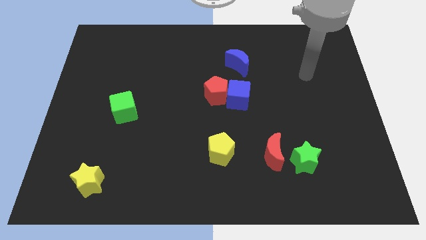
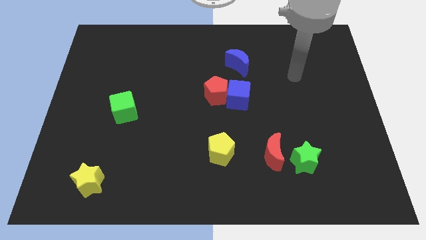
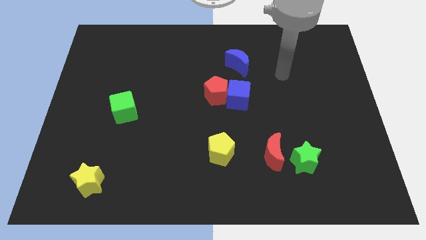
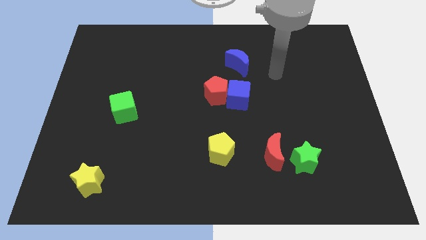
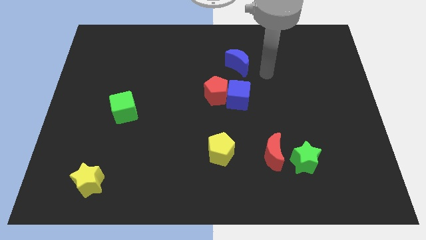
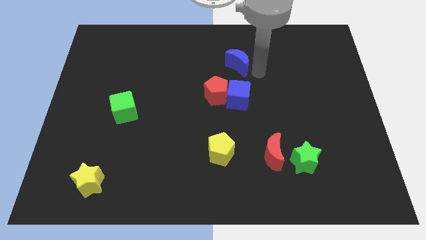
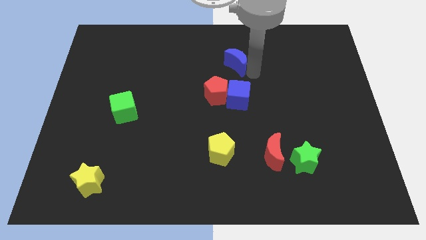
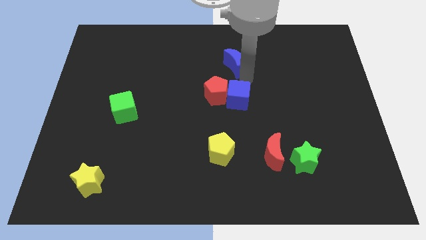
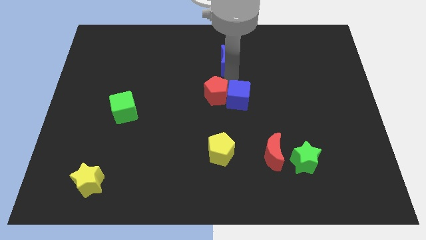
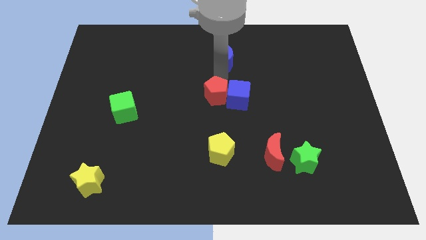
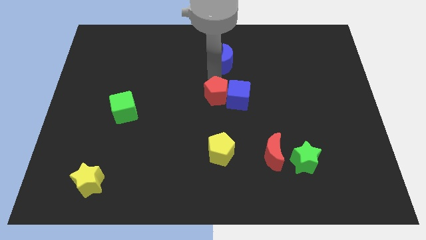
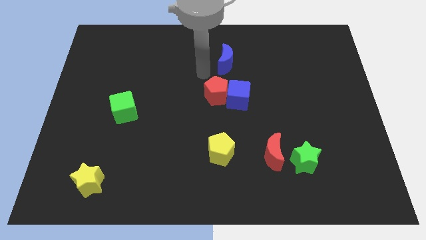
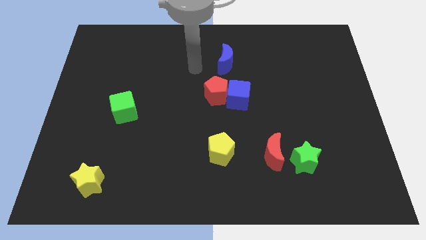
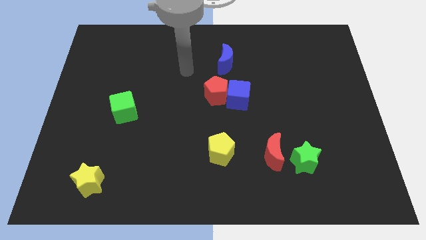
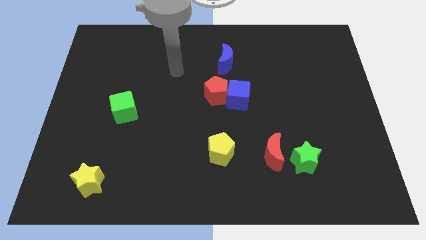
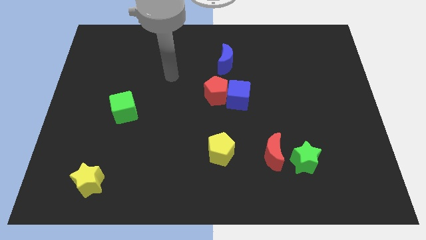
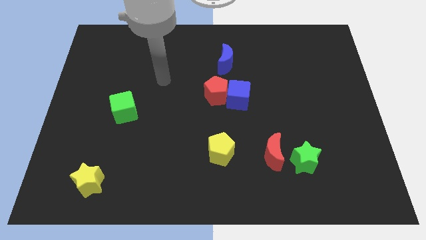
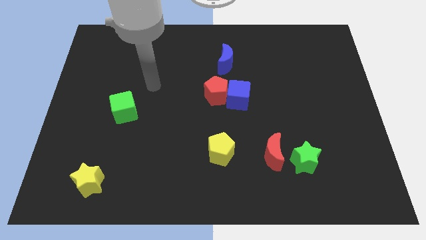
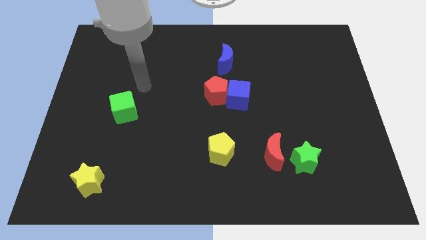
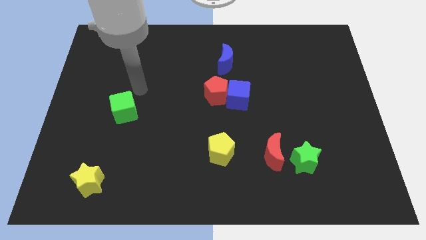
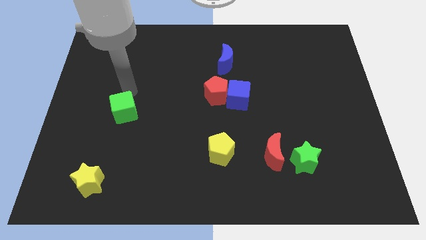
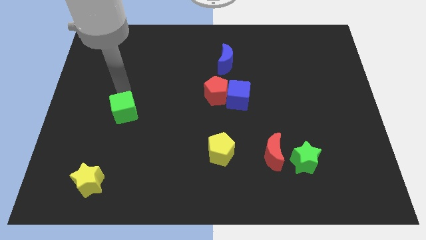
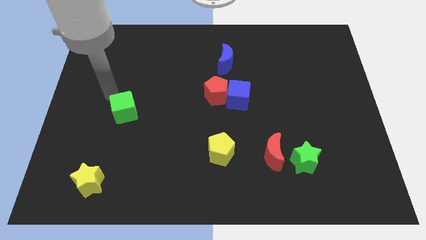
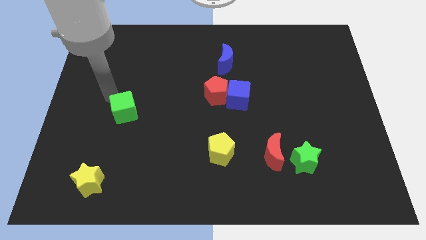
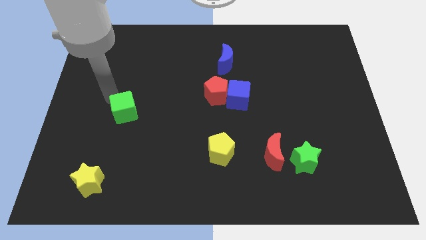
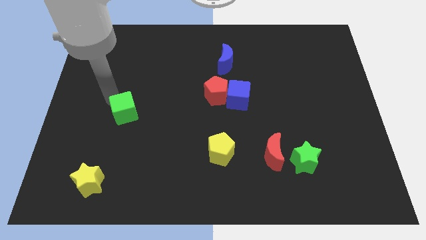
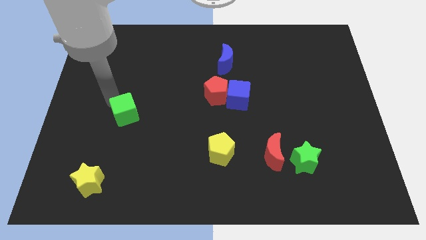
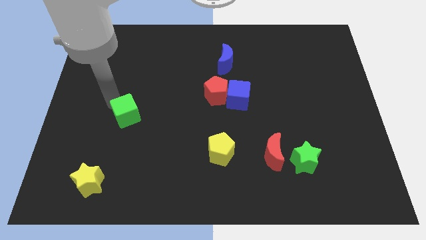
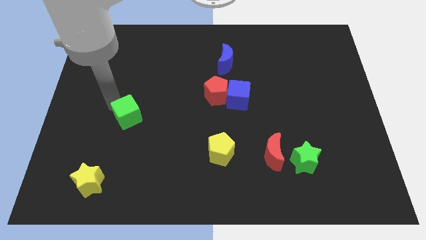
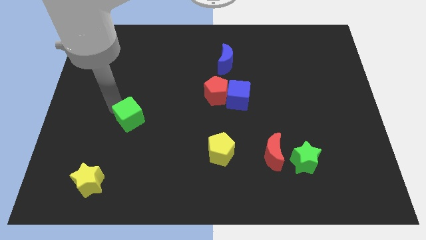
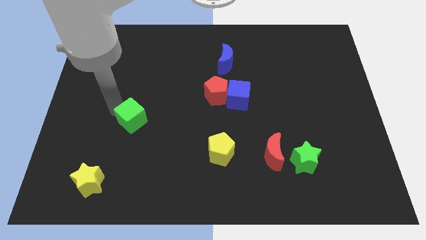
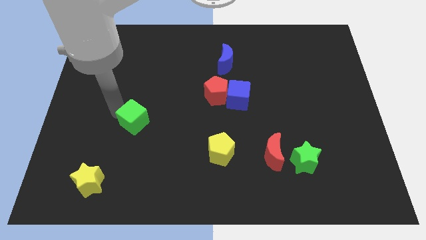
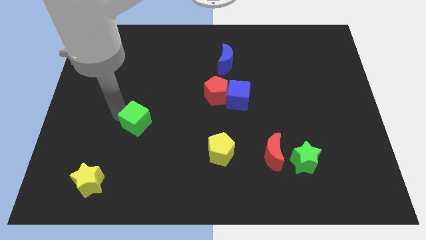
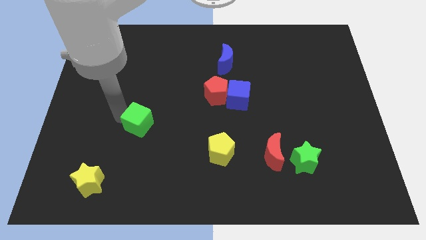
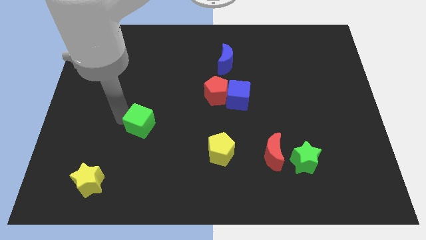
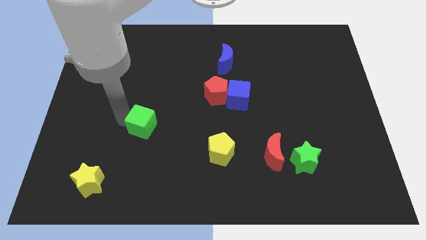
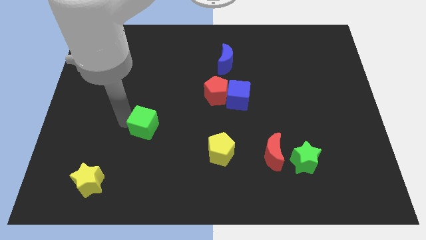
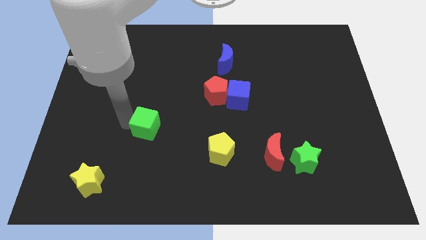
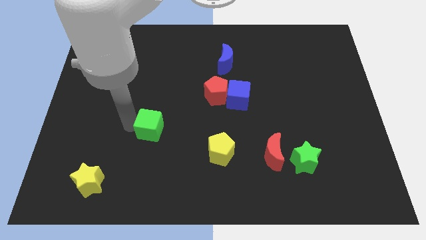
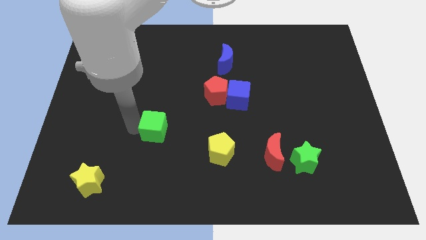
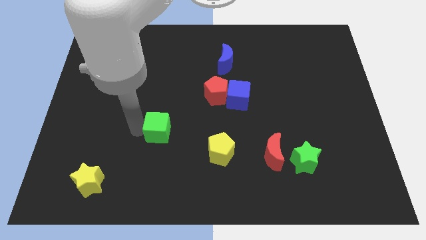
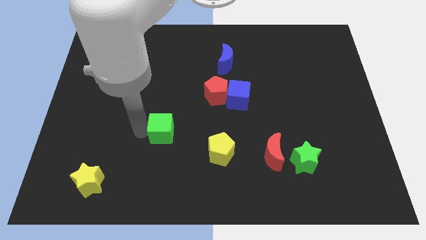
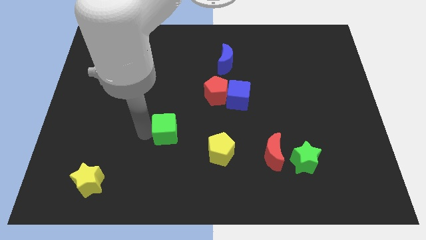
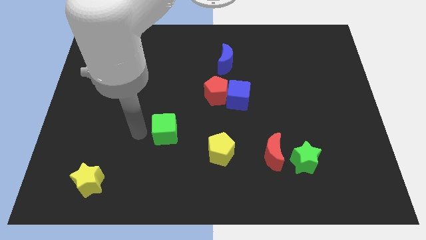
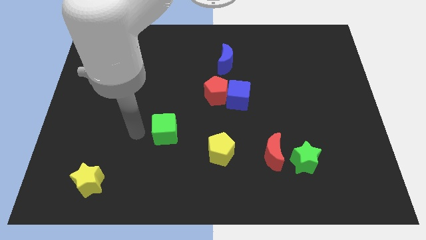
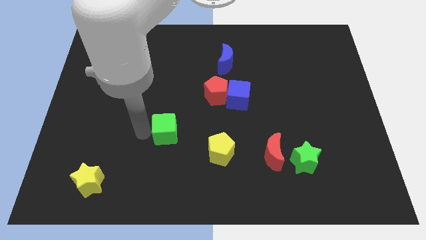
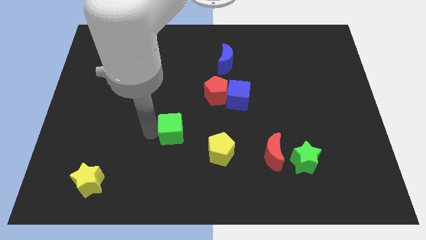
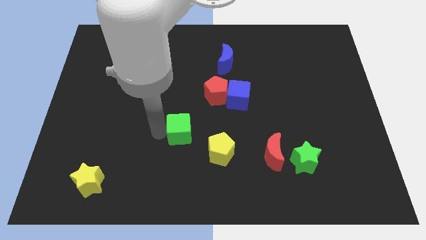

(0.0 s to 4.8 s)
slide the green cube diagonally up and to the left of the yellow pentagon

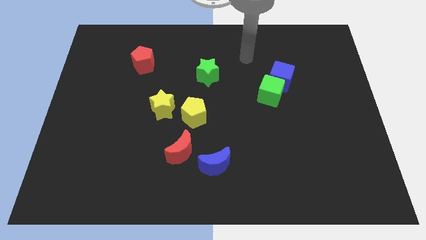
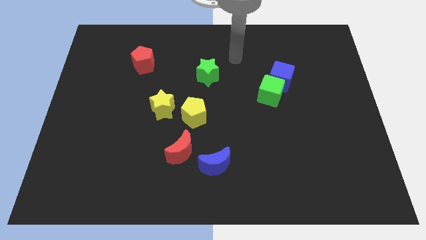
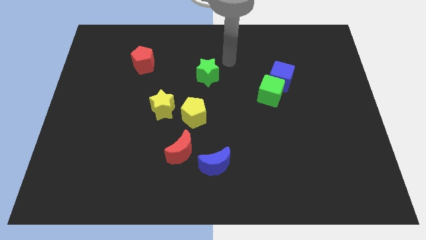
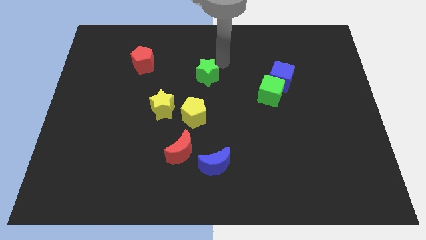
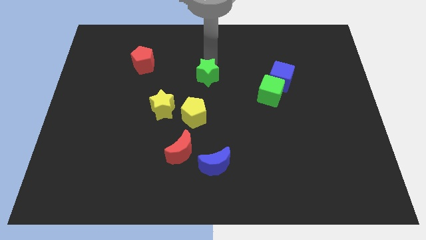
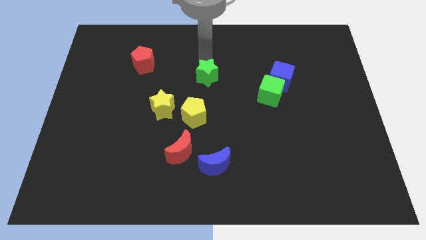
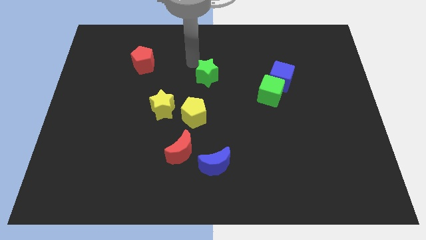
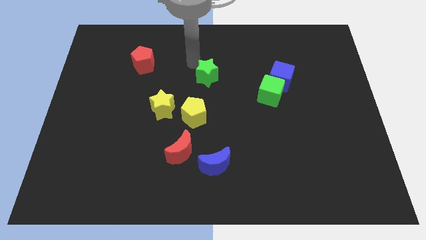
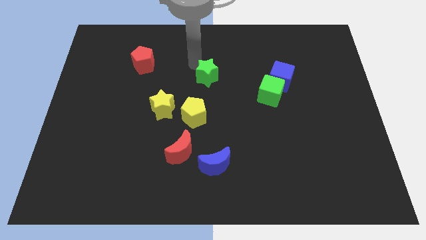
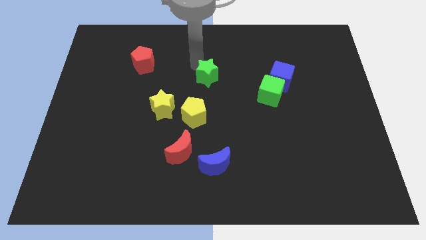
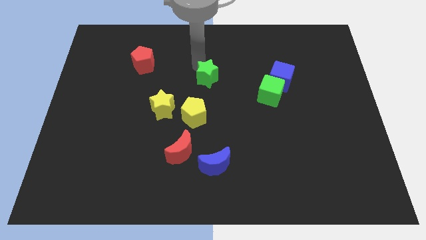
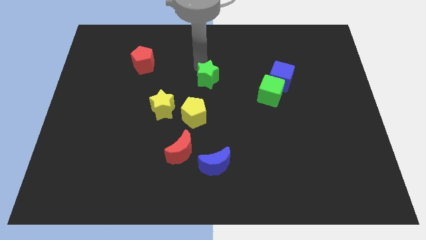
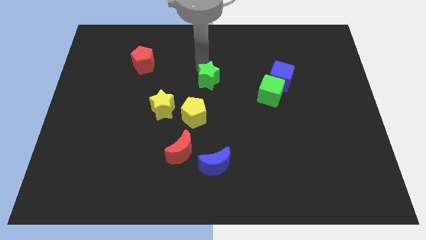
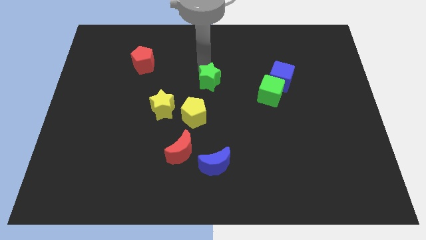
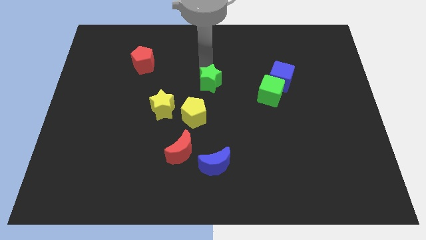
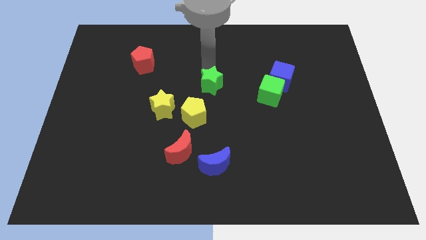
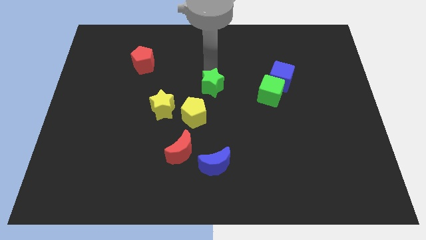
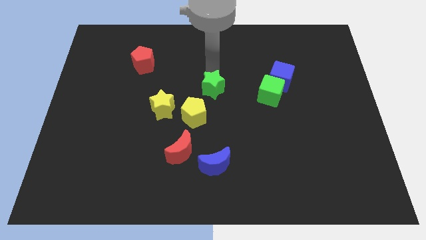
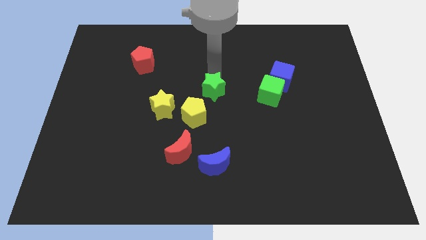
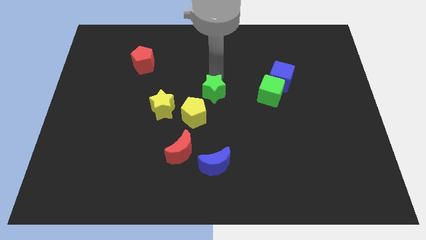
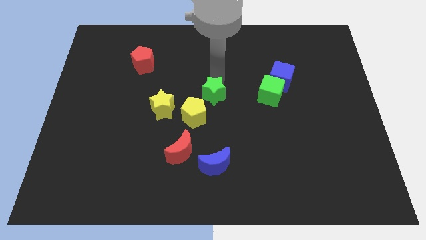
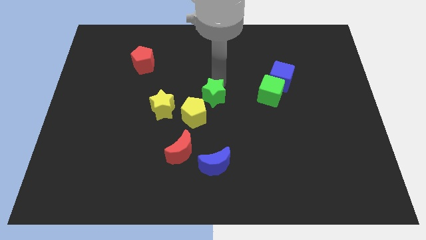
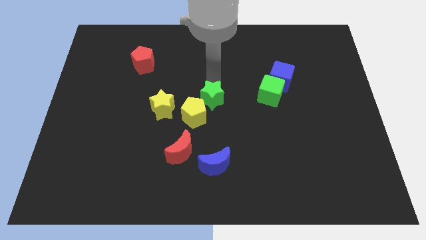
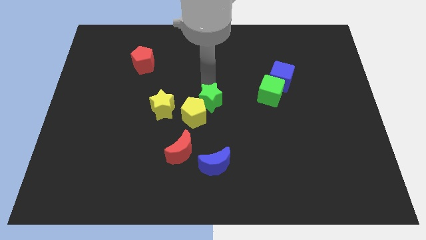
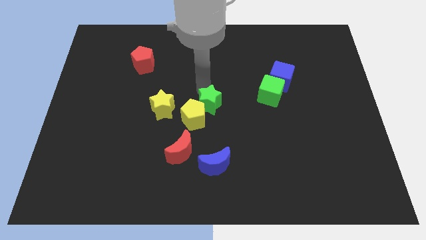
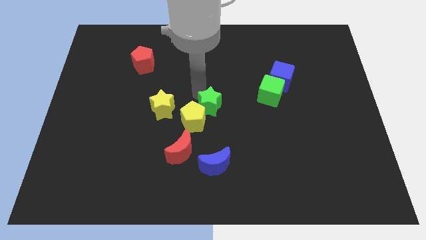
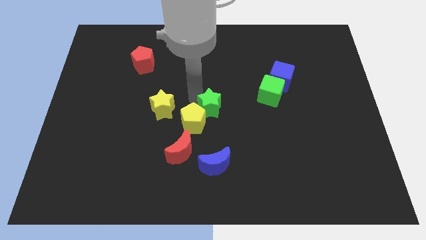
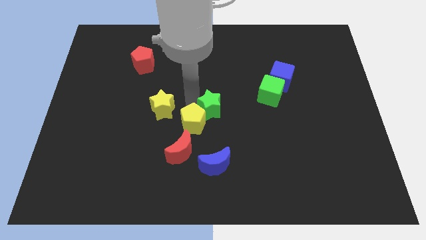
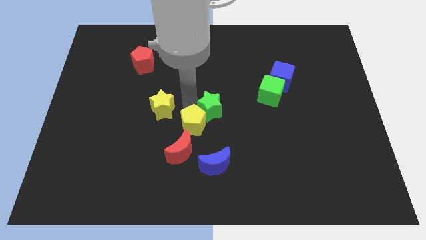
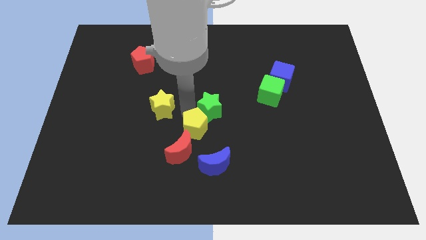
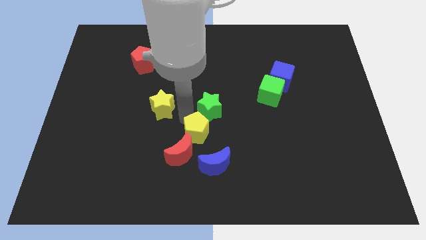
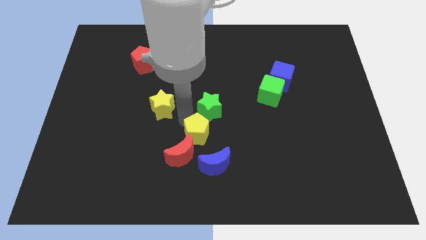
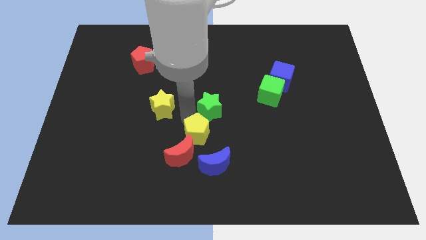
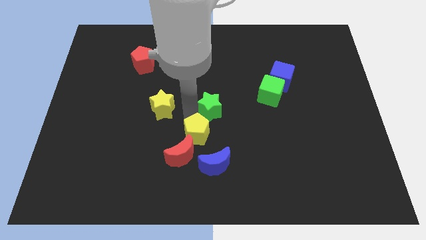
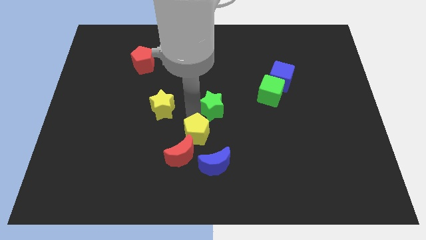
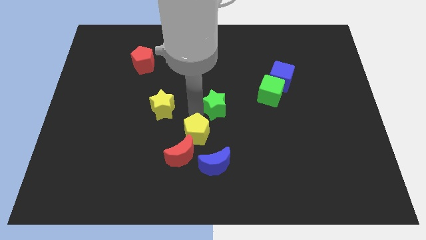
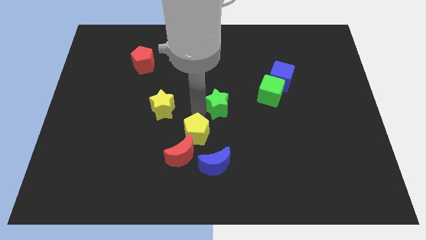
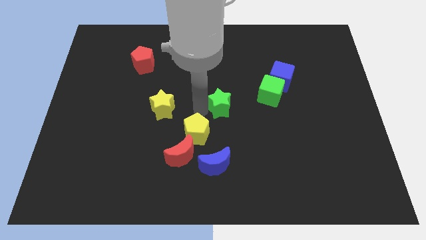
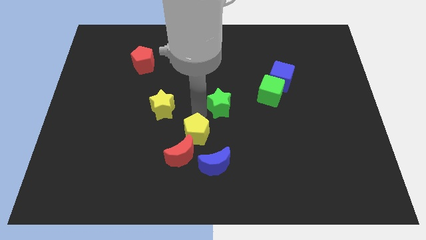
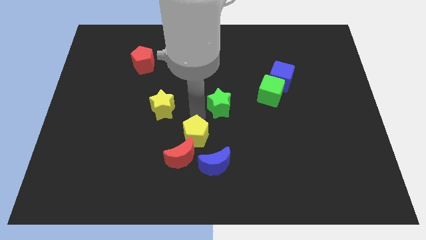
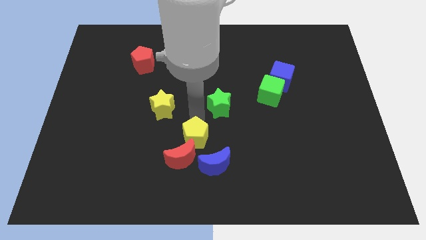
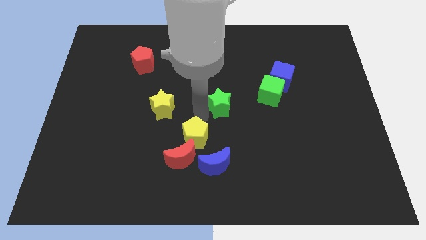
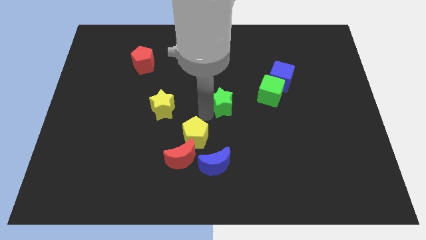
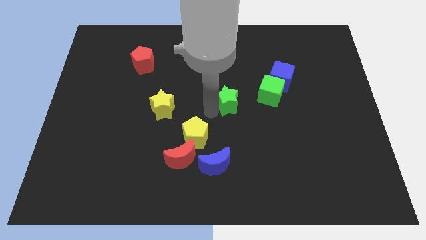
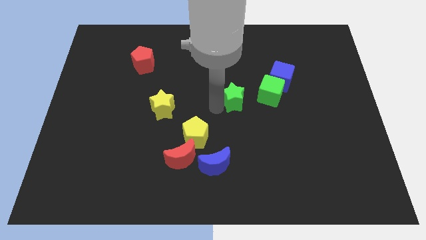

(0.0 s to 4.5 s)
slide the green star to the bottom left side of the green cube
